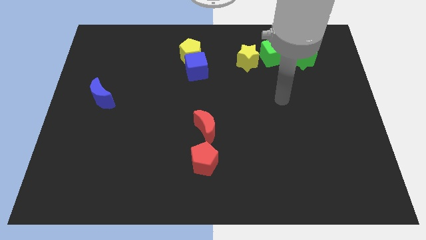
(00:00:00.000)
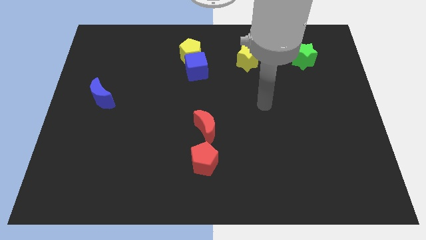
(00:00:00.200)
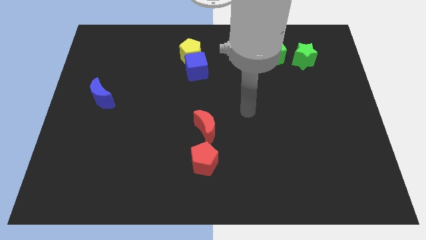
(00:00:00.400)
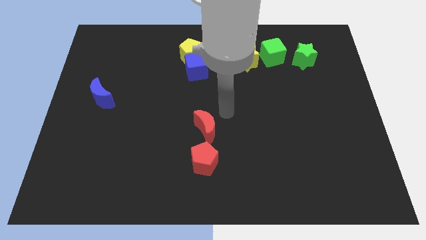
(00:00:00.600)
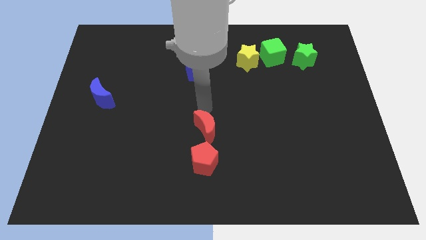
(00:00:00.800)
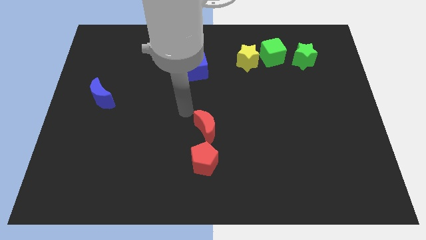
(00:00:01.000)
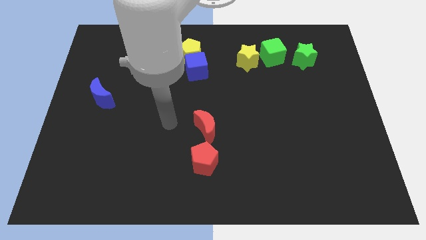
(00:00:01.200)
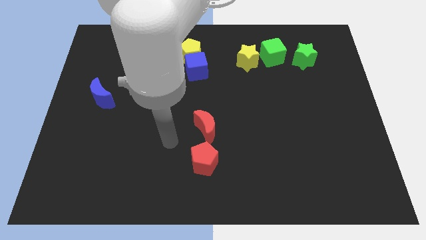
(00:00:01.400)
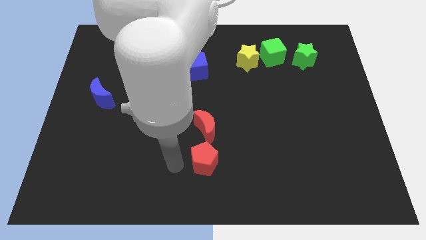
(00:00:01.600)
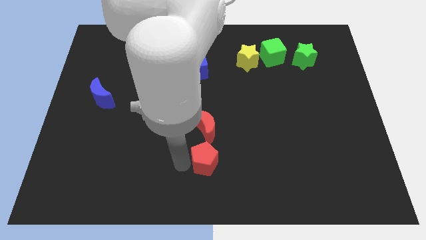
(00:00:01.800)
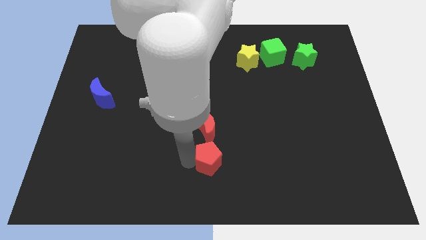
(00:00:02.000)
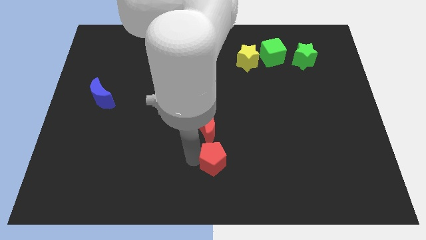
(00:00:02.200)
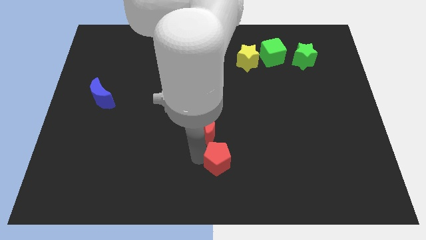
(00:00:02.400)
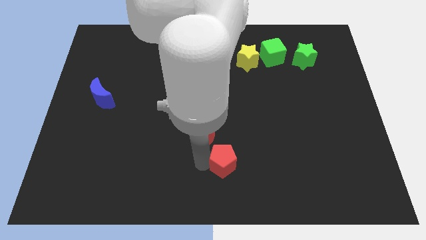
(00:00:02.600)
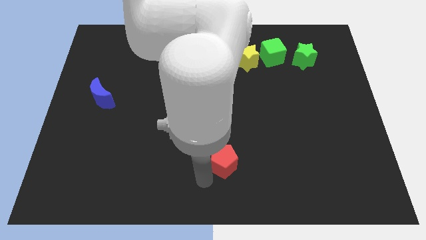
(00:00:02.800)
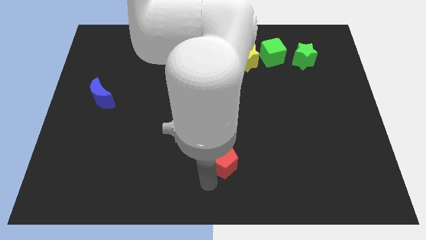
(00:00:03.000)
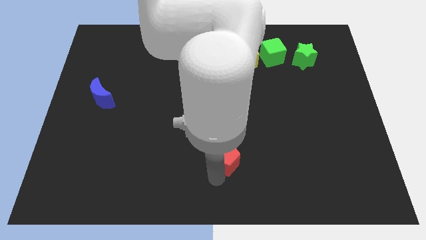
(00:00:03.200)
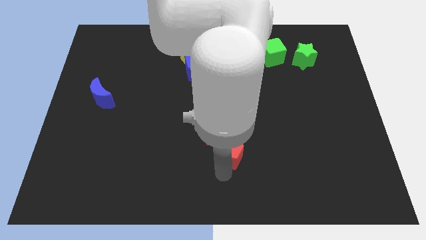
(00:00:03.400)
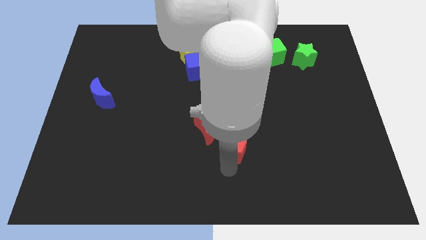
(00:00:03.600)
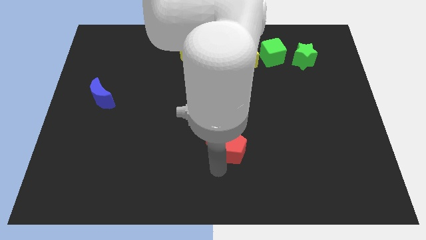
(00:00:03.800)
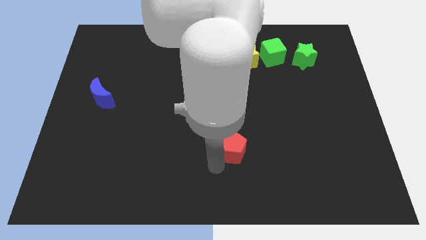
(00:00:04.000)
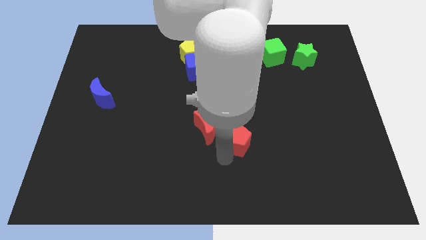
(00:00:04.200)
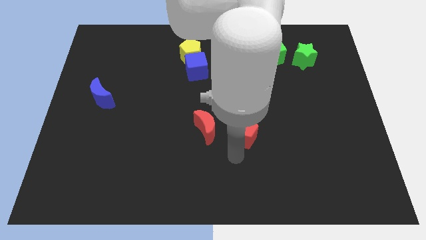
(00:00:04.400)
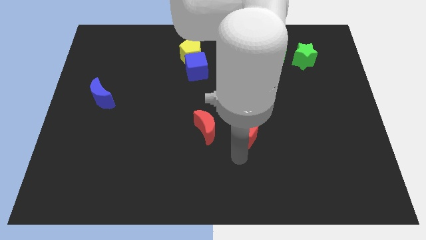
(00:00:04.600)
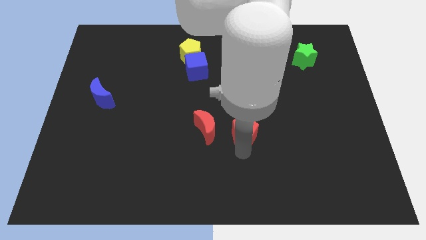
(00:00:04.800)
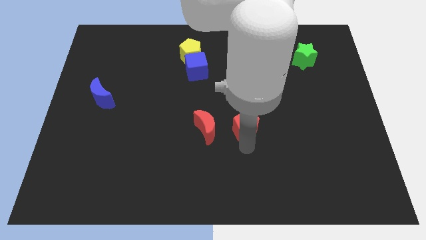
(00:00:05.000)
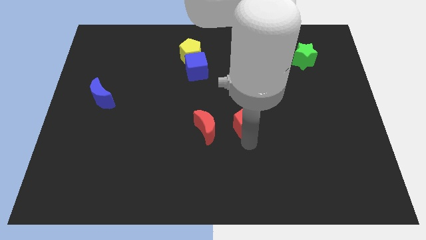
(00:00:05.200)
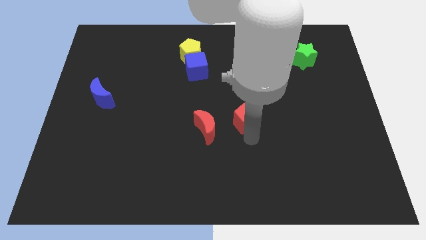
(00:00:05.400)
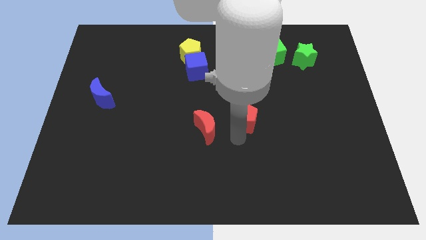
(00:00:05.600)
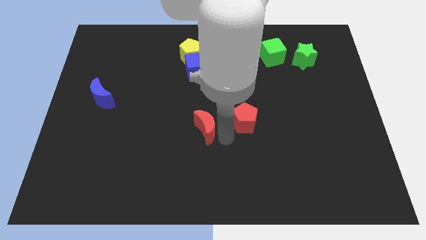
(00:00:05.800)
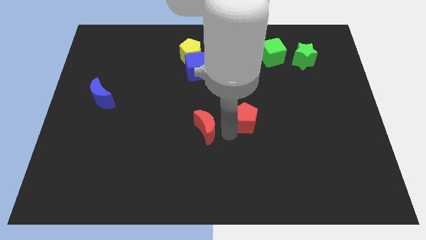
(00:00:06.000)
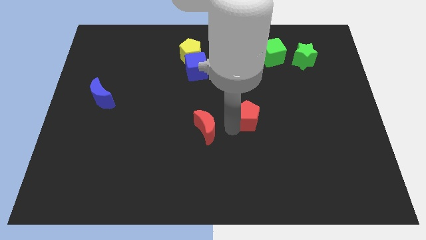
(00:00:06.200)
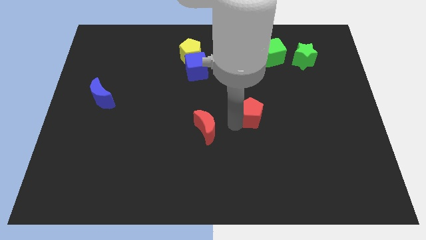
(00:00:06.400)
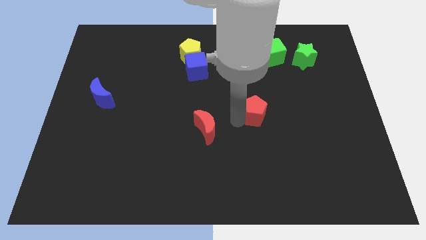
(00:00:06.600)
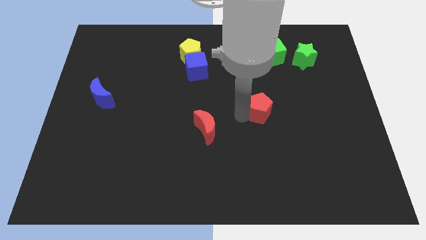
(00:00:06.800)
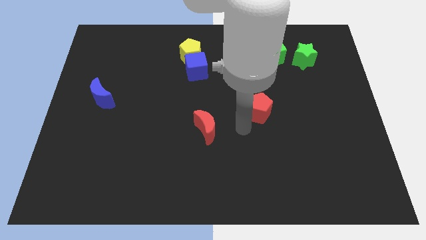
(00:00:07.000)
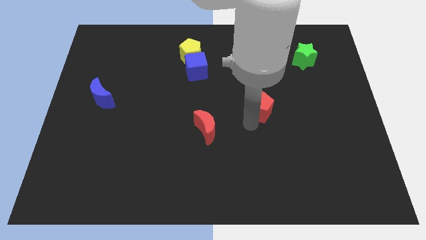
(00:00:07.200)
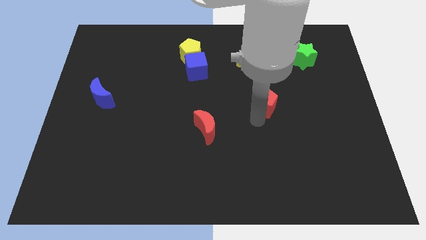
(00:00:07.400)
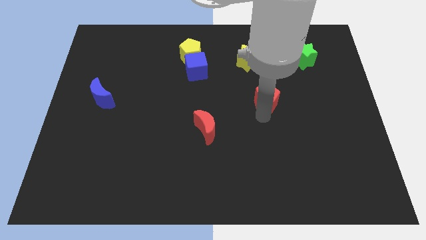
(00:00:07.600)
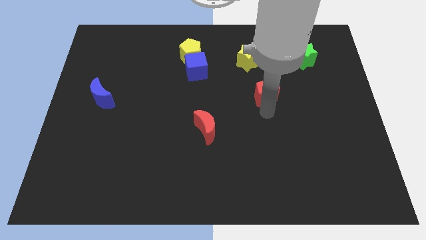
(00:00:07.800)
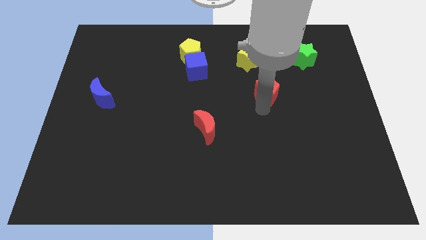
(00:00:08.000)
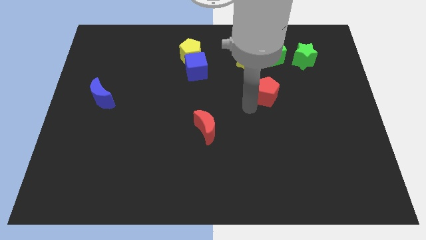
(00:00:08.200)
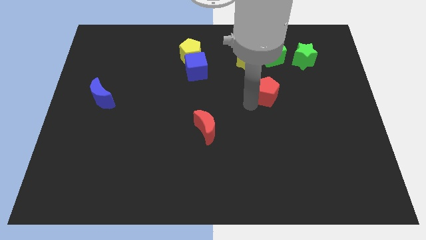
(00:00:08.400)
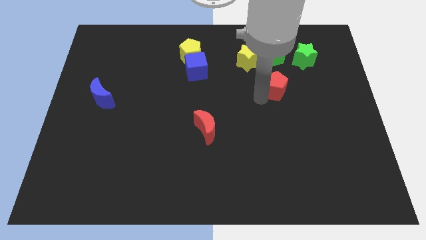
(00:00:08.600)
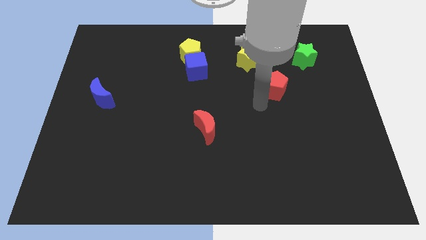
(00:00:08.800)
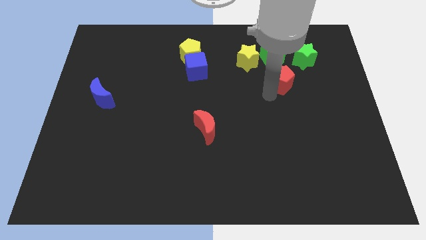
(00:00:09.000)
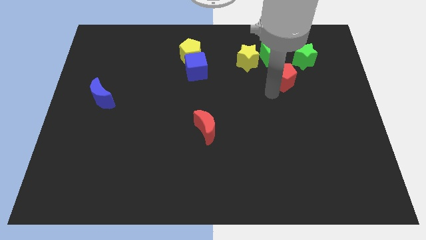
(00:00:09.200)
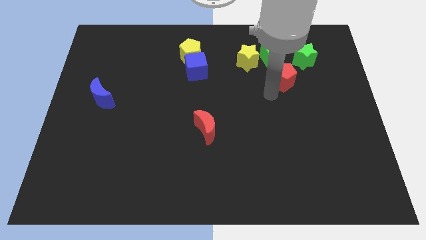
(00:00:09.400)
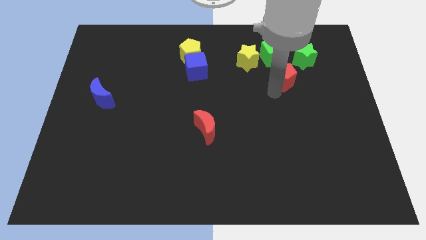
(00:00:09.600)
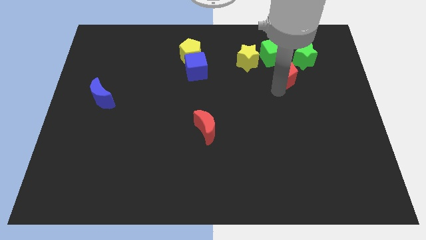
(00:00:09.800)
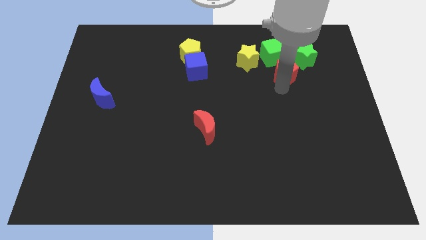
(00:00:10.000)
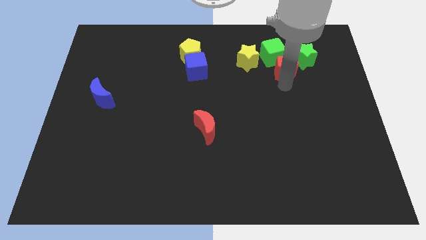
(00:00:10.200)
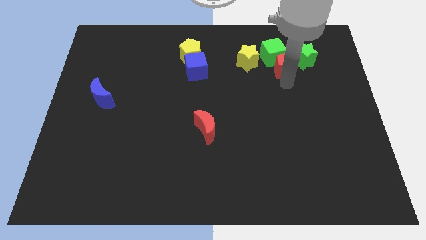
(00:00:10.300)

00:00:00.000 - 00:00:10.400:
put the red pentagon close to the green star
